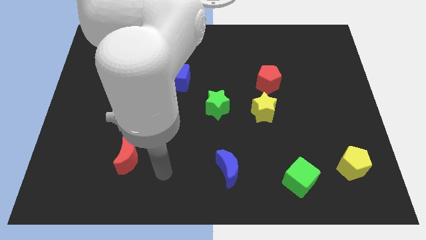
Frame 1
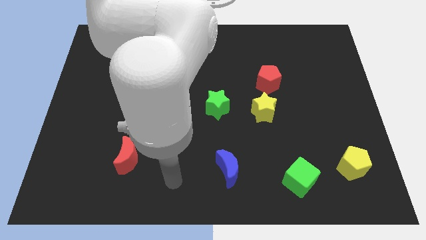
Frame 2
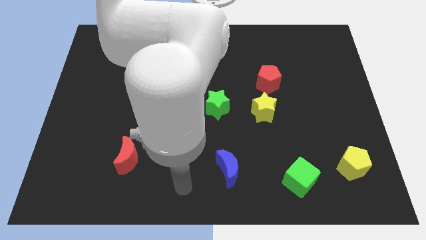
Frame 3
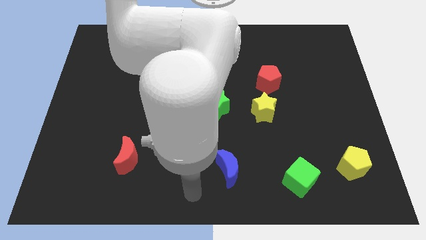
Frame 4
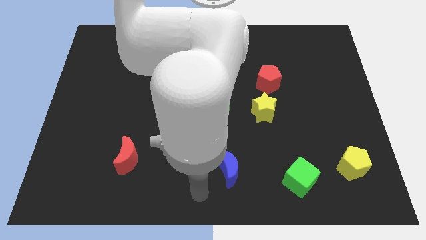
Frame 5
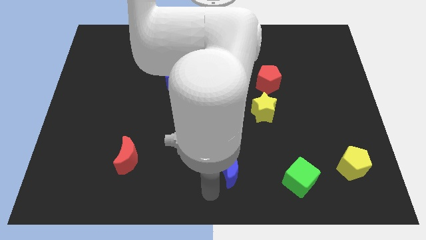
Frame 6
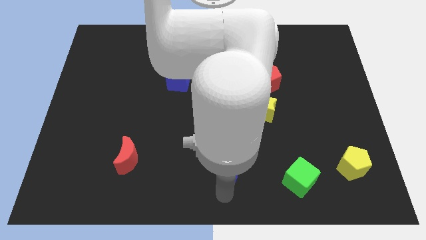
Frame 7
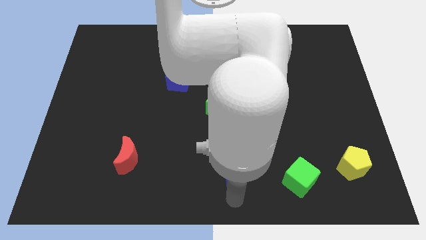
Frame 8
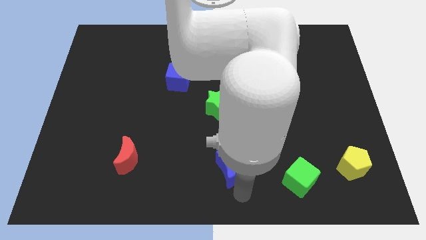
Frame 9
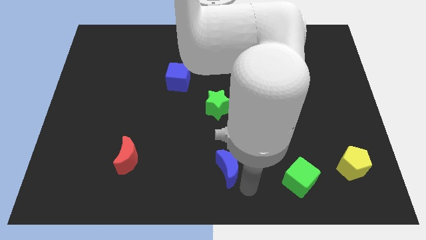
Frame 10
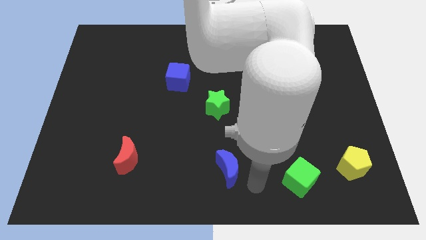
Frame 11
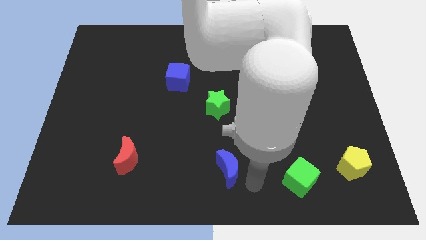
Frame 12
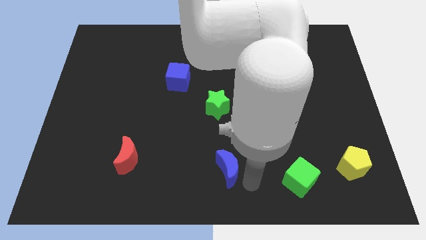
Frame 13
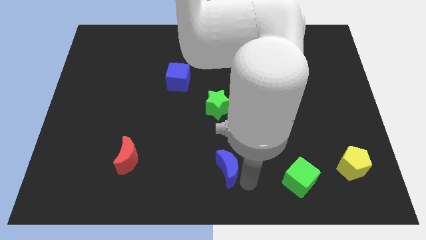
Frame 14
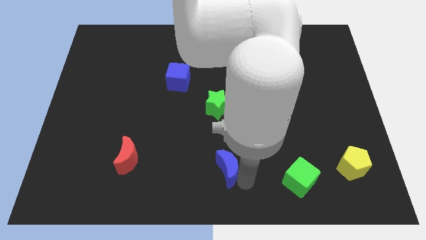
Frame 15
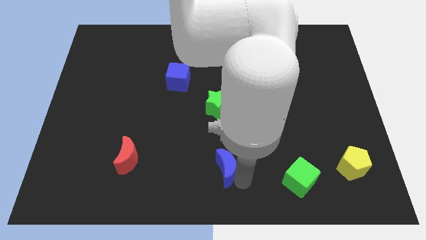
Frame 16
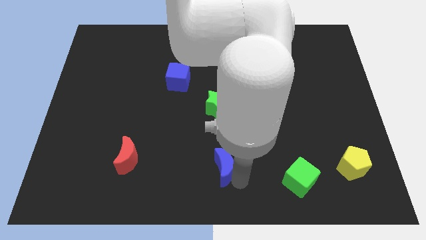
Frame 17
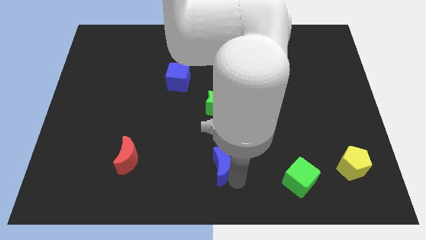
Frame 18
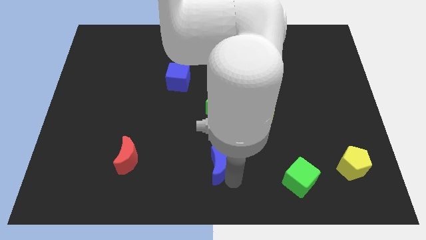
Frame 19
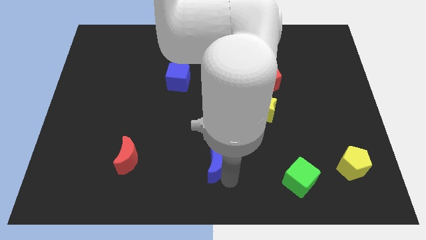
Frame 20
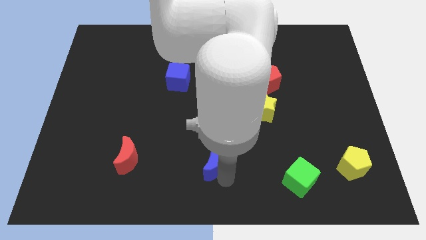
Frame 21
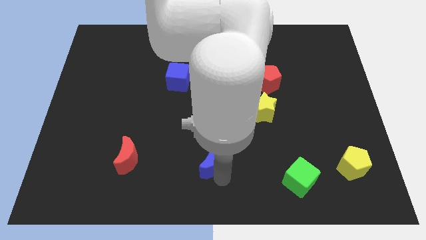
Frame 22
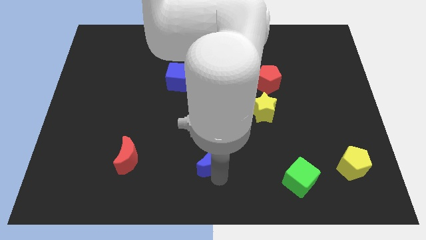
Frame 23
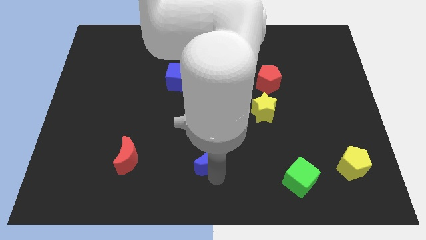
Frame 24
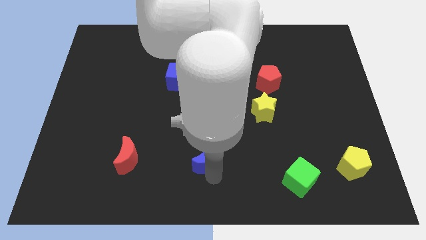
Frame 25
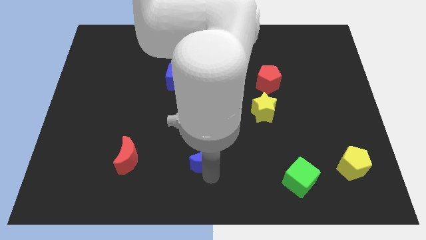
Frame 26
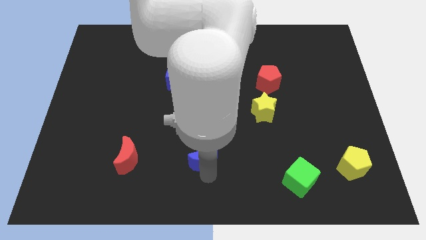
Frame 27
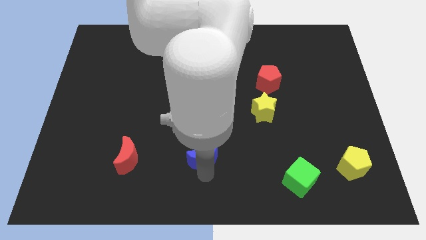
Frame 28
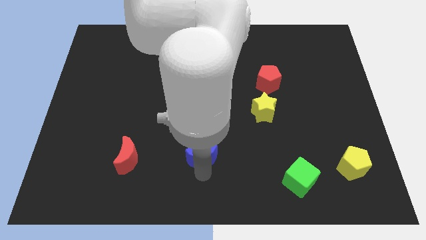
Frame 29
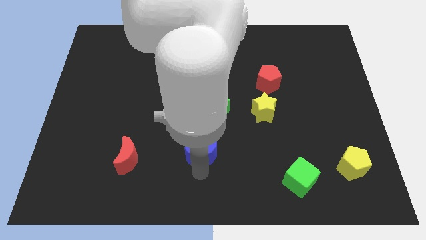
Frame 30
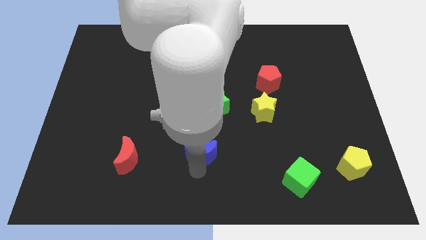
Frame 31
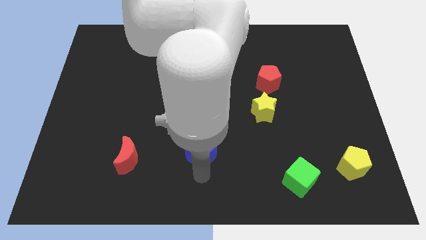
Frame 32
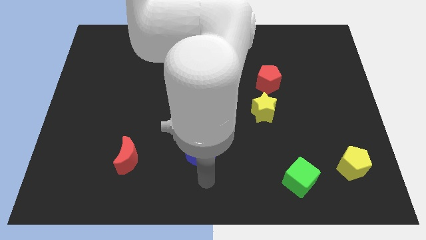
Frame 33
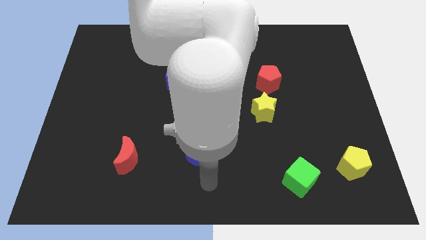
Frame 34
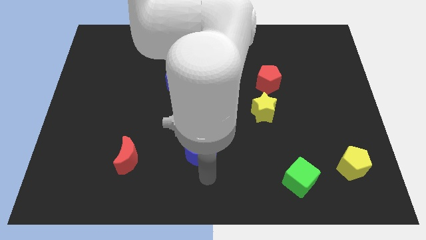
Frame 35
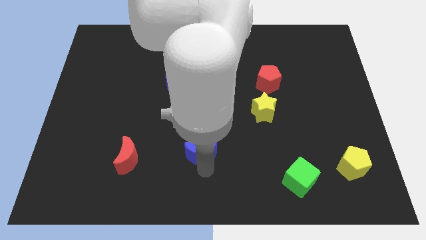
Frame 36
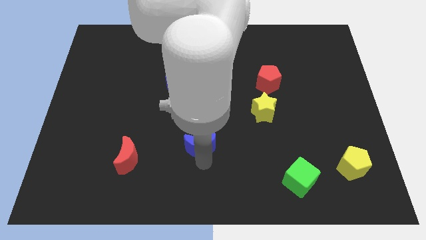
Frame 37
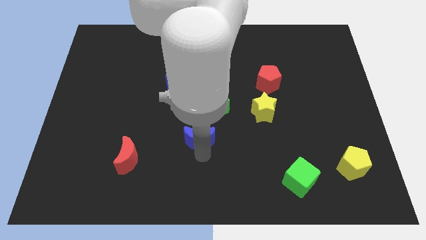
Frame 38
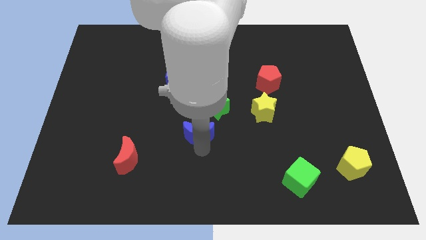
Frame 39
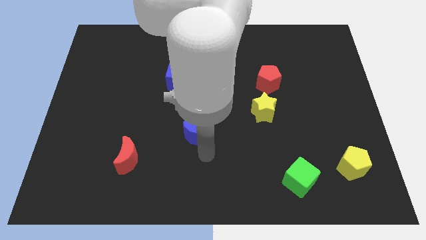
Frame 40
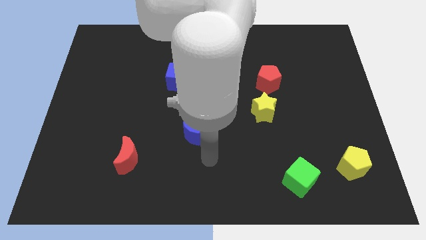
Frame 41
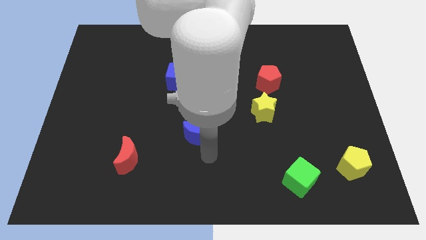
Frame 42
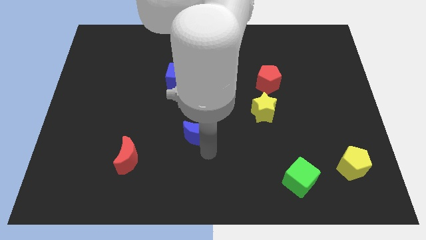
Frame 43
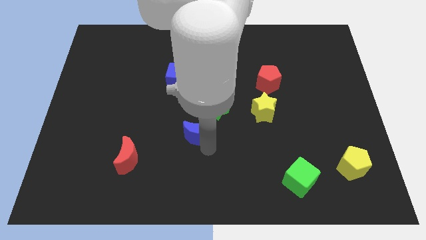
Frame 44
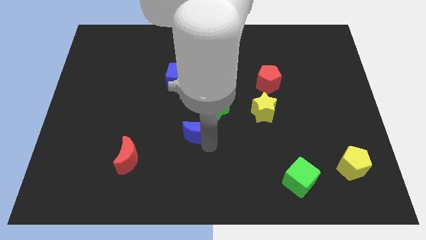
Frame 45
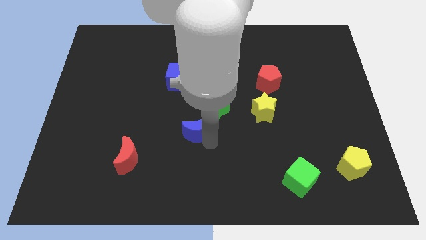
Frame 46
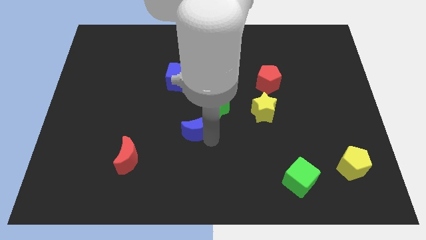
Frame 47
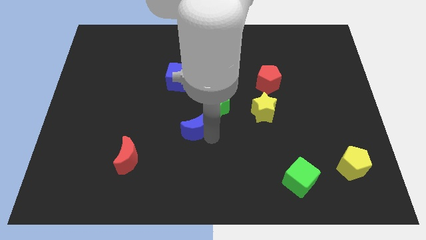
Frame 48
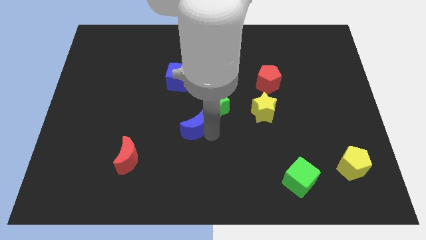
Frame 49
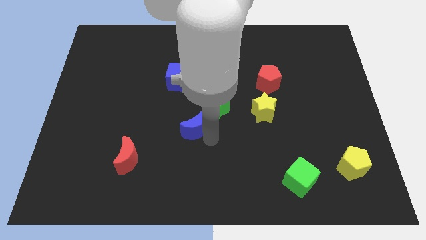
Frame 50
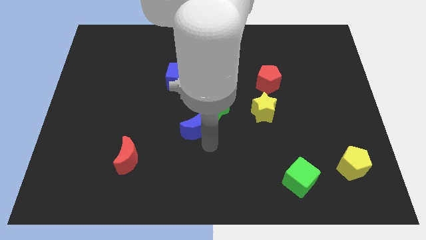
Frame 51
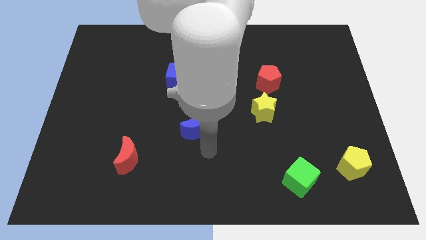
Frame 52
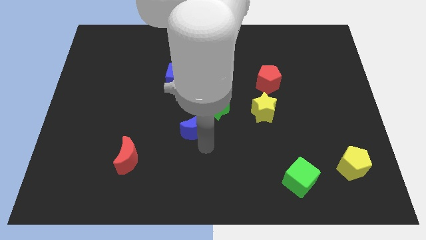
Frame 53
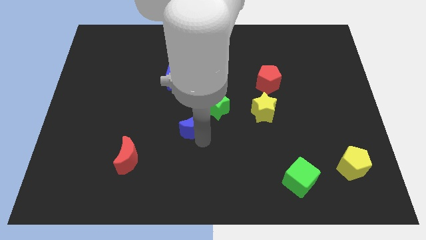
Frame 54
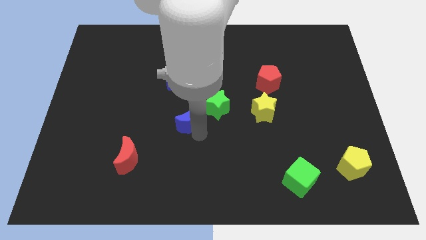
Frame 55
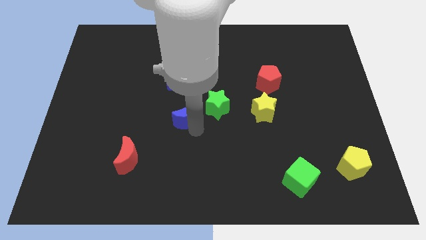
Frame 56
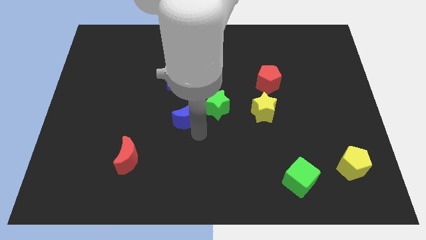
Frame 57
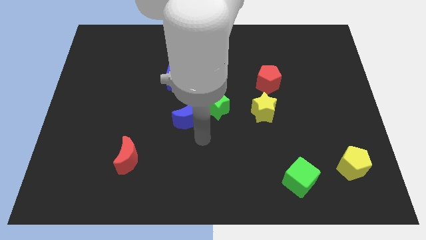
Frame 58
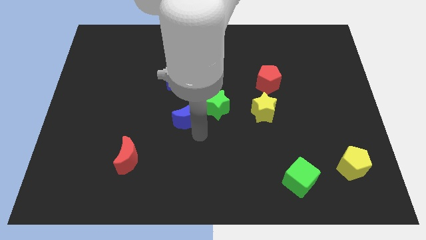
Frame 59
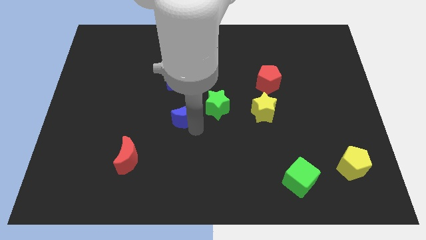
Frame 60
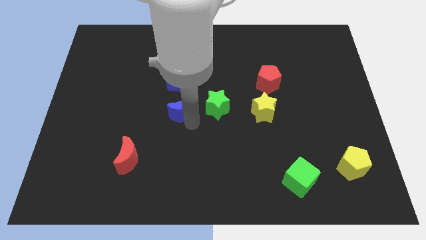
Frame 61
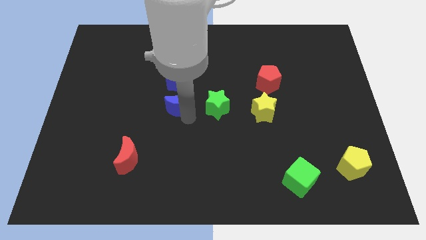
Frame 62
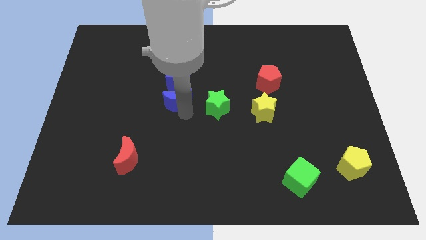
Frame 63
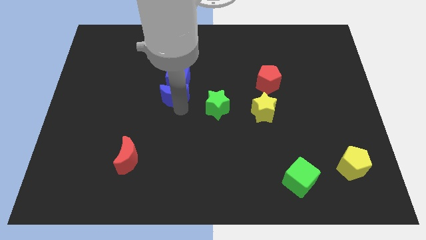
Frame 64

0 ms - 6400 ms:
push the blue moon close to the blue cube
